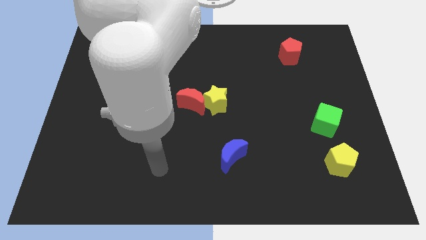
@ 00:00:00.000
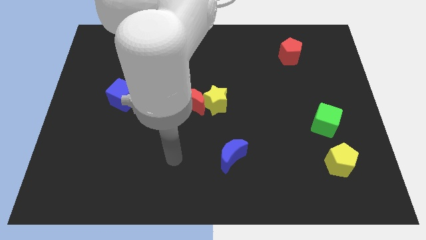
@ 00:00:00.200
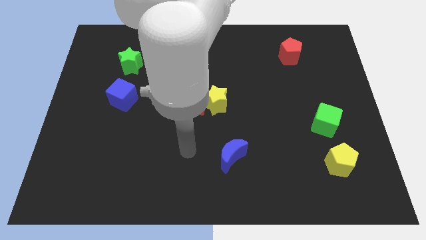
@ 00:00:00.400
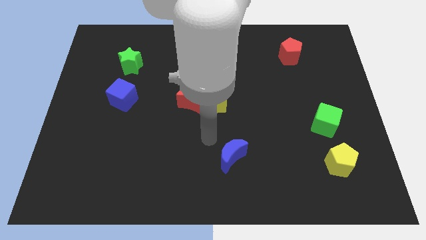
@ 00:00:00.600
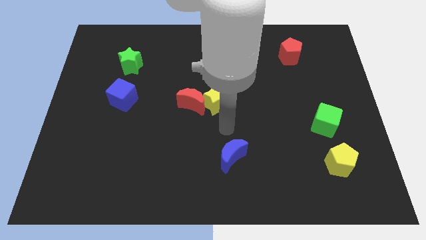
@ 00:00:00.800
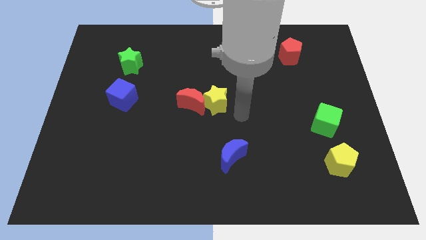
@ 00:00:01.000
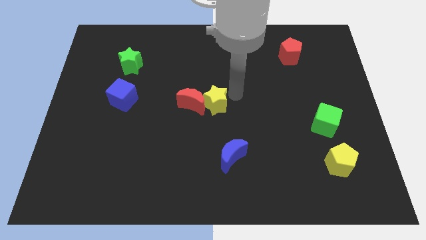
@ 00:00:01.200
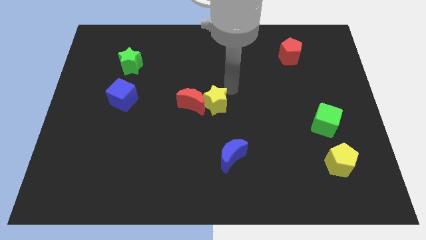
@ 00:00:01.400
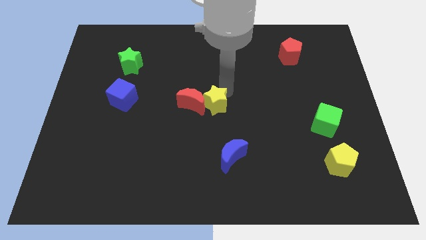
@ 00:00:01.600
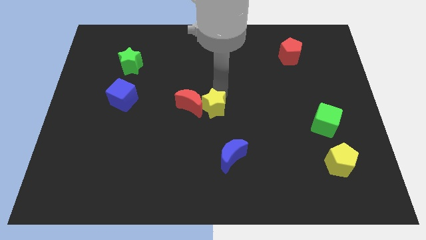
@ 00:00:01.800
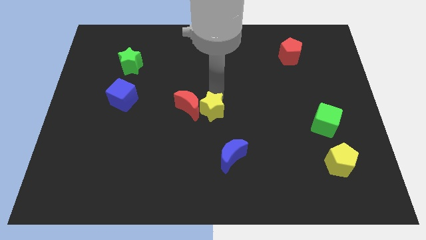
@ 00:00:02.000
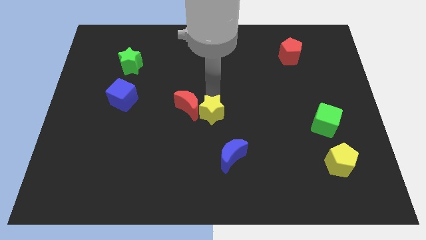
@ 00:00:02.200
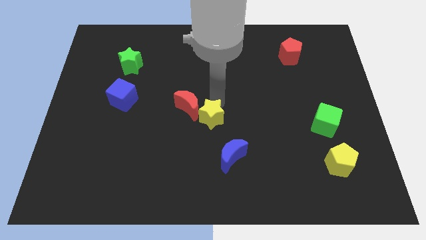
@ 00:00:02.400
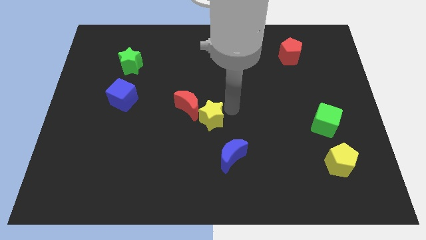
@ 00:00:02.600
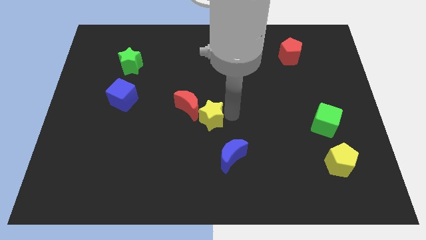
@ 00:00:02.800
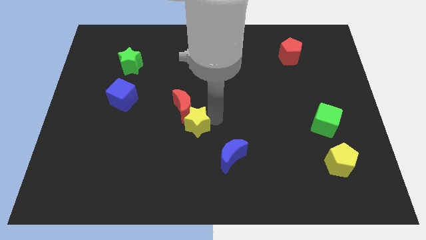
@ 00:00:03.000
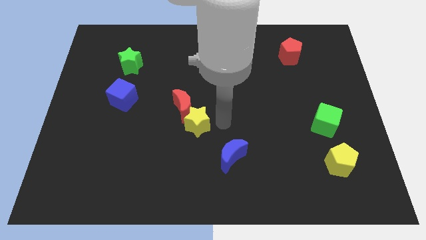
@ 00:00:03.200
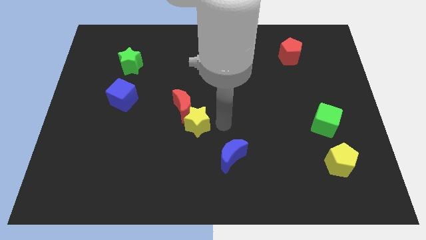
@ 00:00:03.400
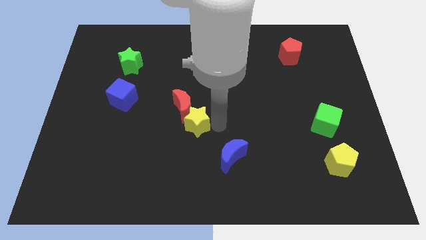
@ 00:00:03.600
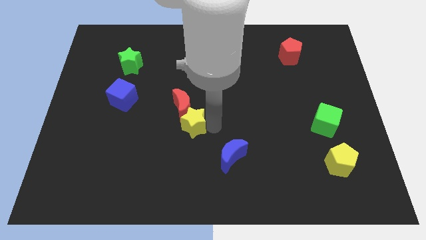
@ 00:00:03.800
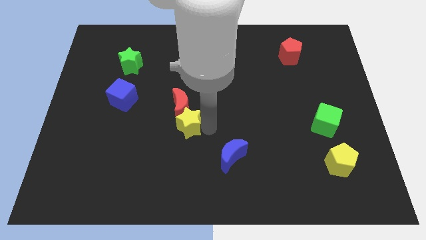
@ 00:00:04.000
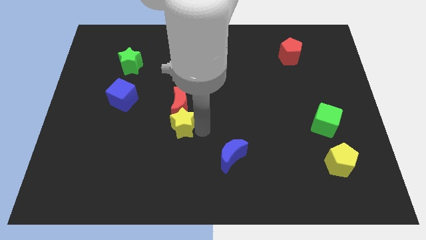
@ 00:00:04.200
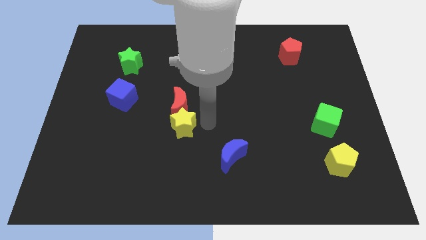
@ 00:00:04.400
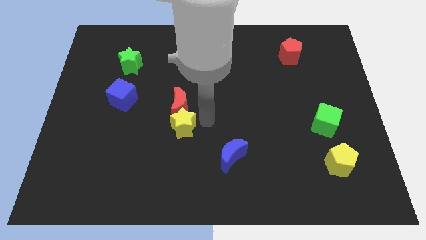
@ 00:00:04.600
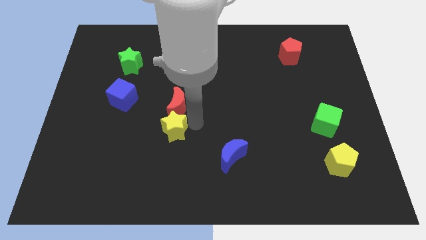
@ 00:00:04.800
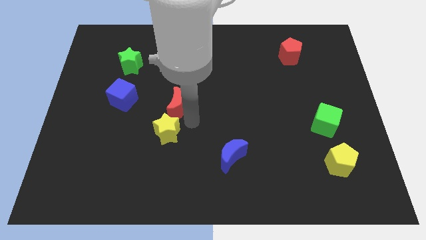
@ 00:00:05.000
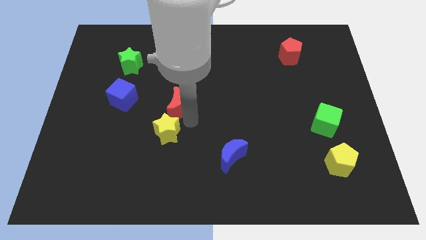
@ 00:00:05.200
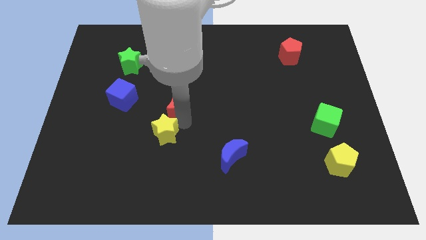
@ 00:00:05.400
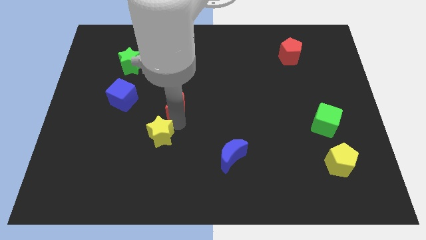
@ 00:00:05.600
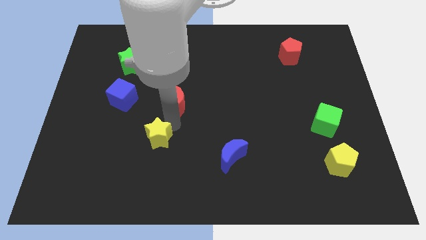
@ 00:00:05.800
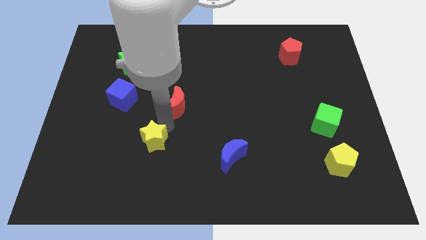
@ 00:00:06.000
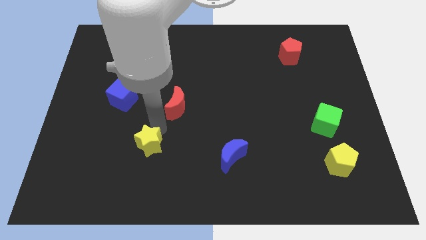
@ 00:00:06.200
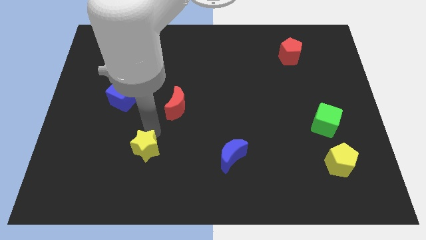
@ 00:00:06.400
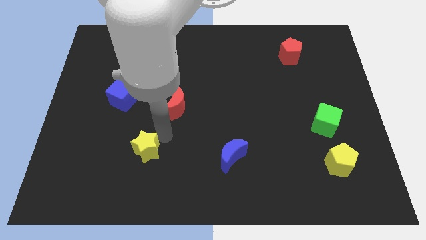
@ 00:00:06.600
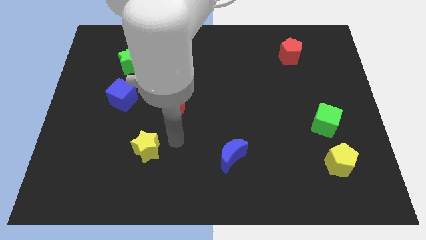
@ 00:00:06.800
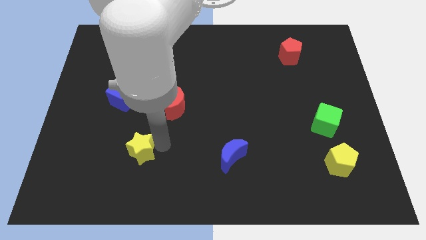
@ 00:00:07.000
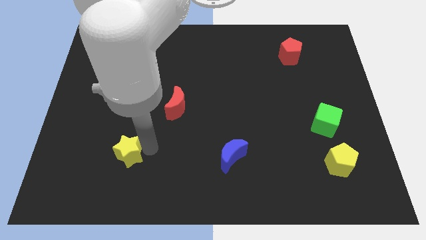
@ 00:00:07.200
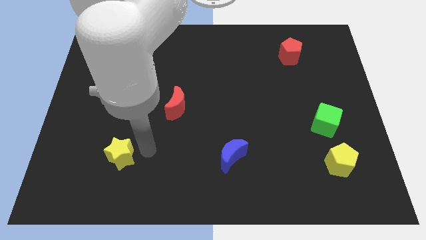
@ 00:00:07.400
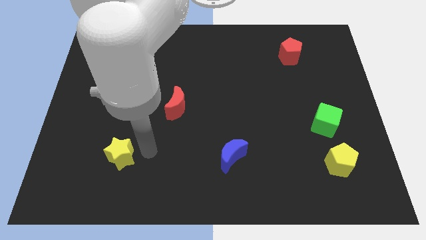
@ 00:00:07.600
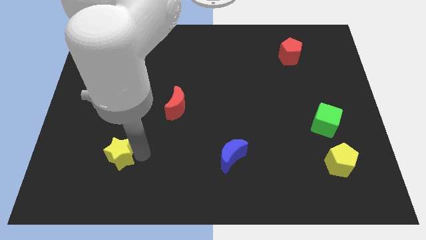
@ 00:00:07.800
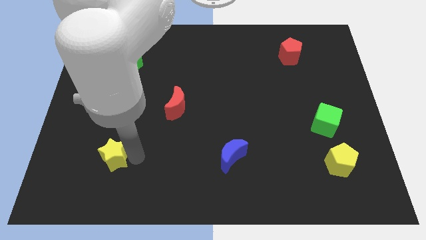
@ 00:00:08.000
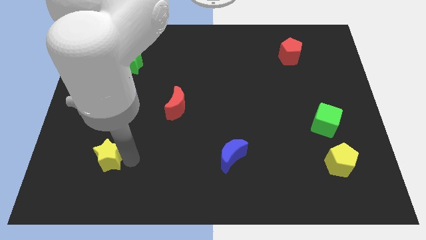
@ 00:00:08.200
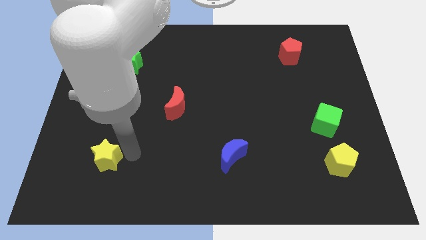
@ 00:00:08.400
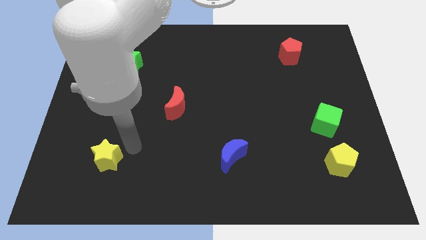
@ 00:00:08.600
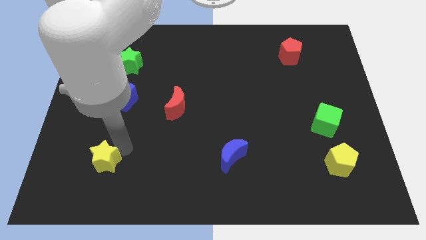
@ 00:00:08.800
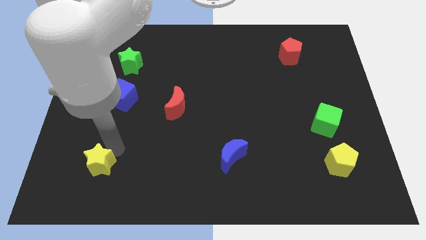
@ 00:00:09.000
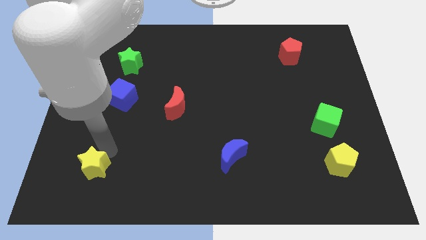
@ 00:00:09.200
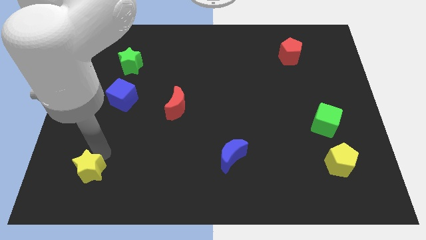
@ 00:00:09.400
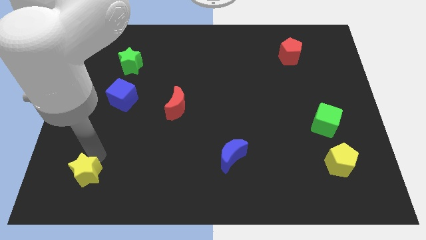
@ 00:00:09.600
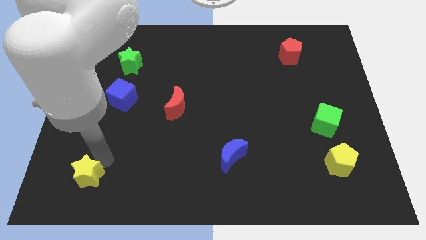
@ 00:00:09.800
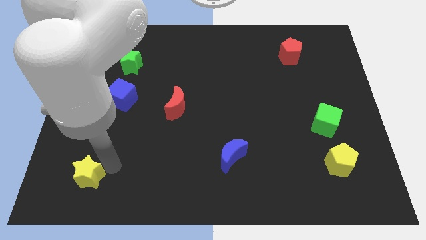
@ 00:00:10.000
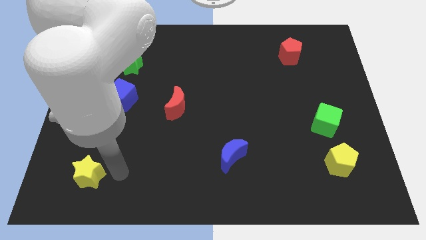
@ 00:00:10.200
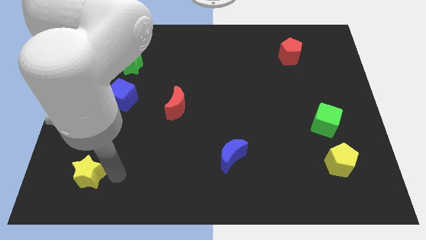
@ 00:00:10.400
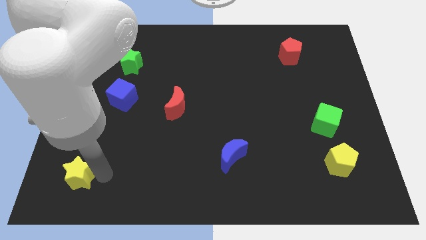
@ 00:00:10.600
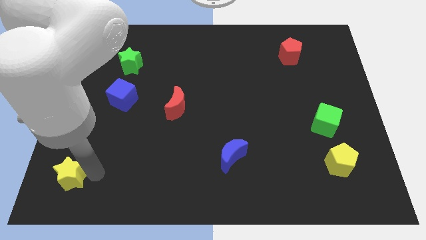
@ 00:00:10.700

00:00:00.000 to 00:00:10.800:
put the yellow star to the bottom left of the board
